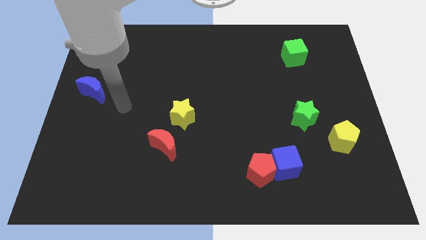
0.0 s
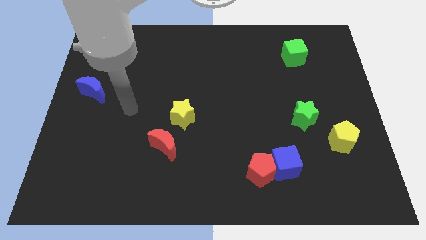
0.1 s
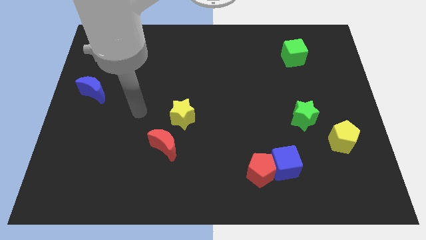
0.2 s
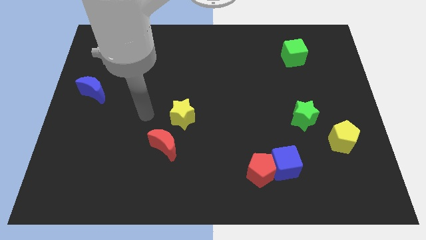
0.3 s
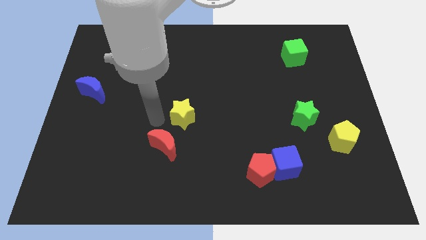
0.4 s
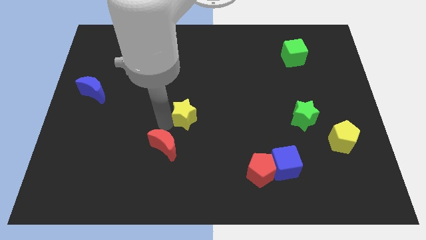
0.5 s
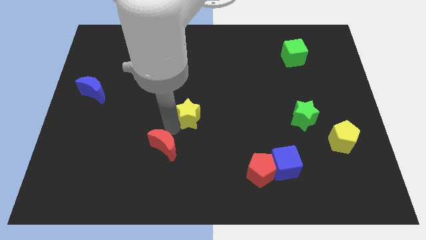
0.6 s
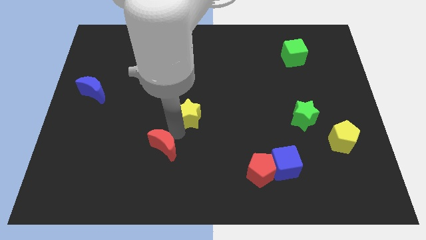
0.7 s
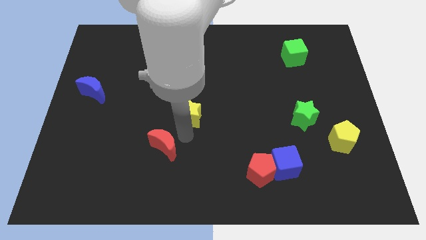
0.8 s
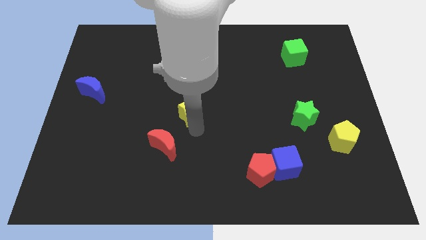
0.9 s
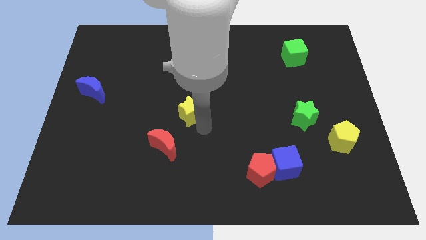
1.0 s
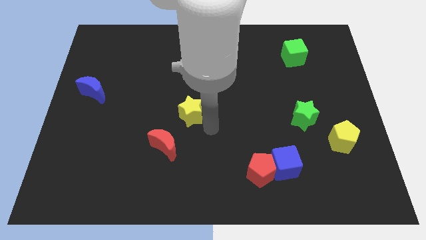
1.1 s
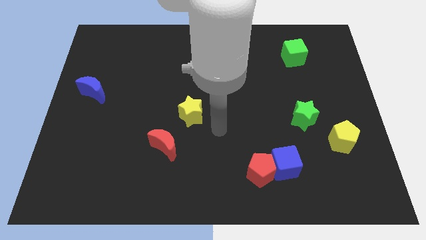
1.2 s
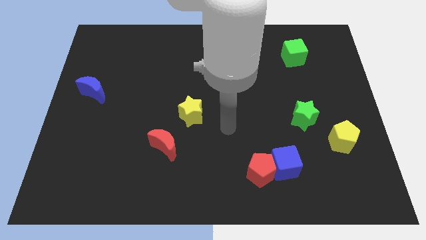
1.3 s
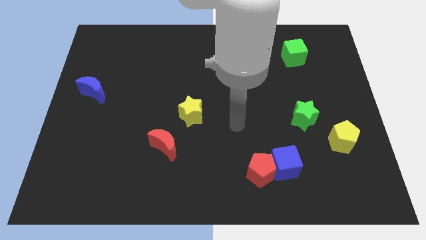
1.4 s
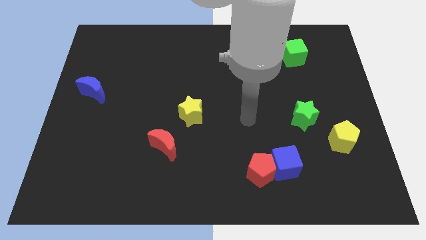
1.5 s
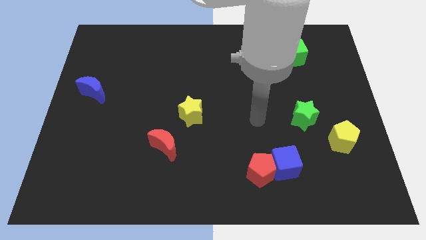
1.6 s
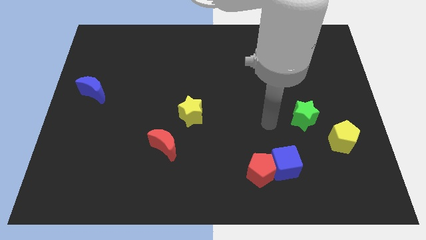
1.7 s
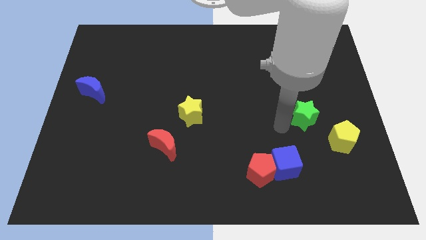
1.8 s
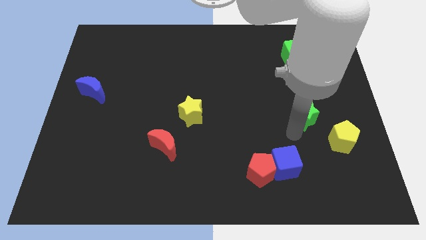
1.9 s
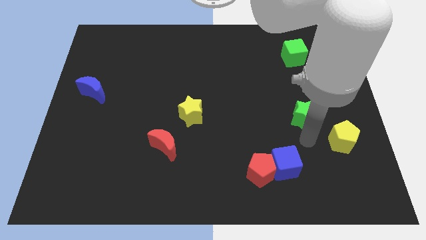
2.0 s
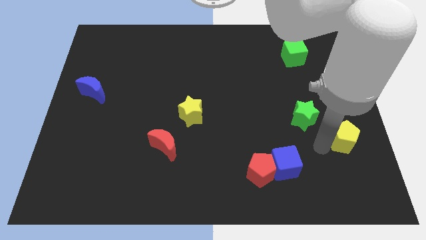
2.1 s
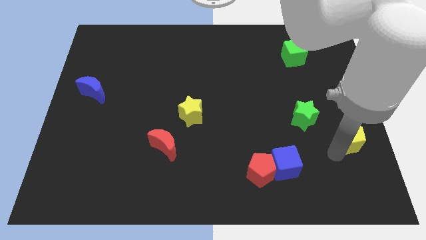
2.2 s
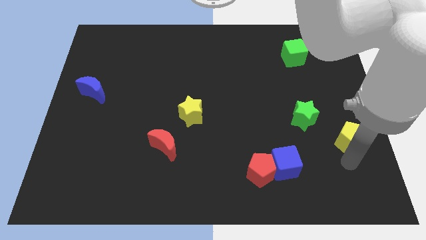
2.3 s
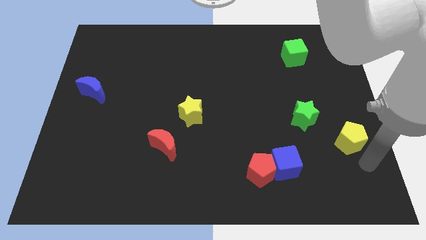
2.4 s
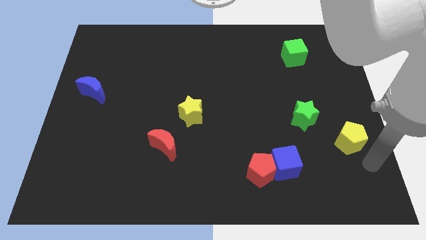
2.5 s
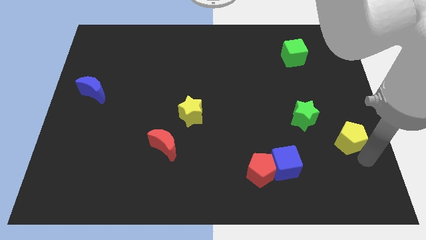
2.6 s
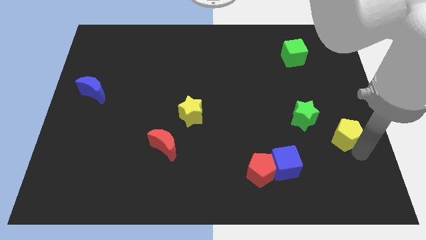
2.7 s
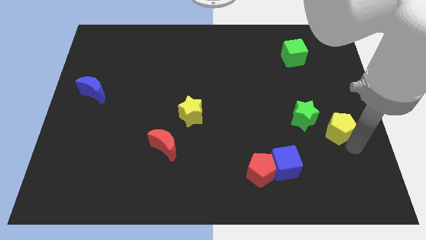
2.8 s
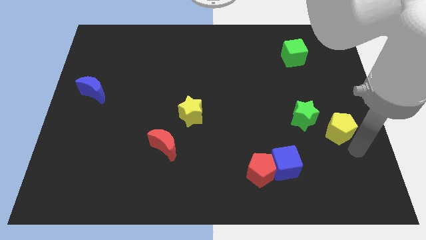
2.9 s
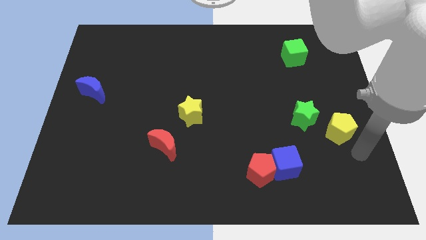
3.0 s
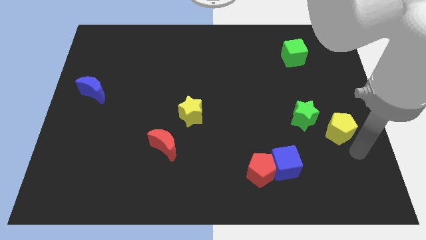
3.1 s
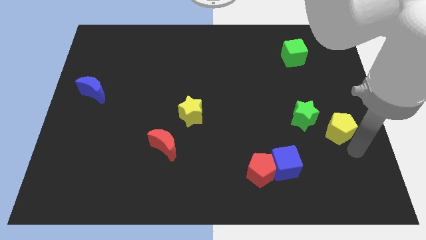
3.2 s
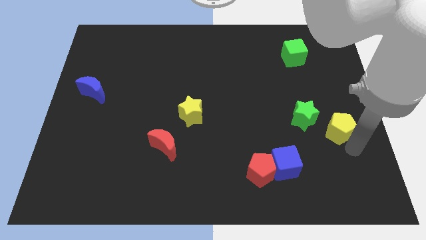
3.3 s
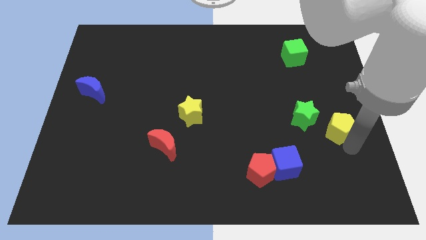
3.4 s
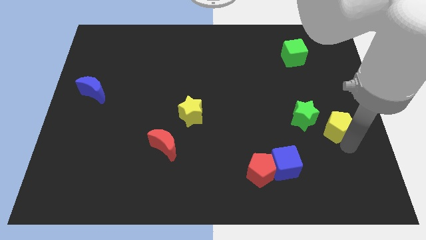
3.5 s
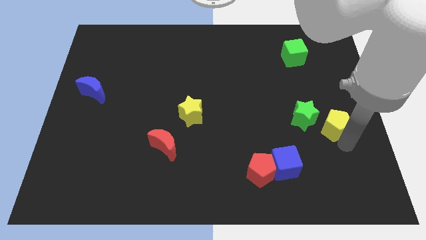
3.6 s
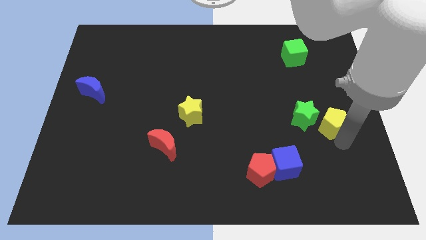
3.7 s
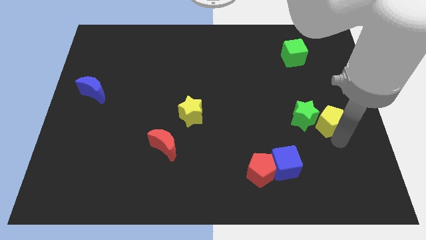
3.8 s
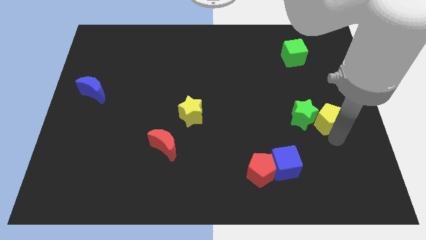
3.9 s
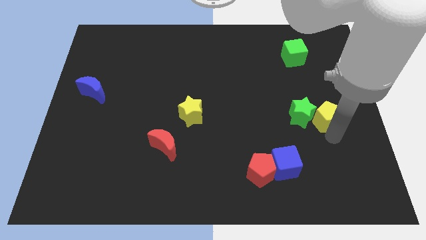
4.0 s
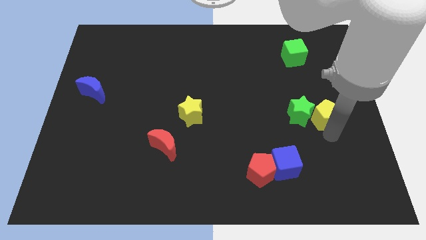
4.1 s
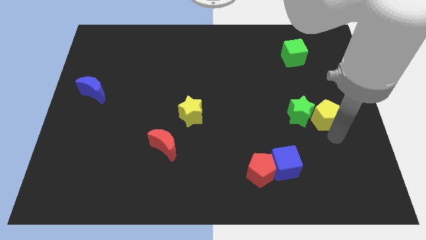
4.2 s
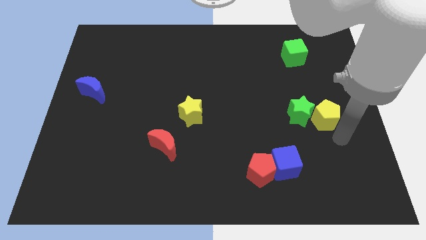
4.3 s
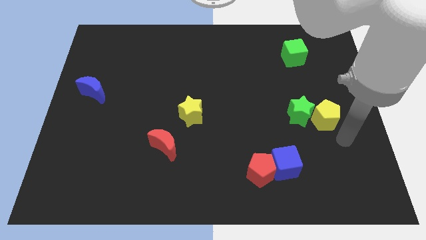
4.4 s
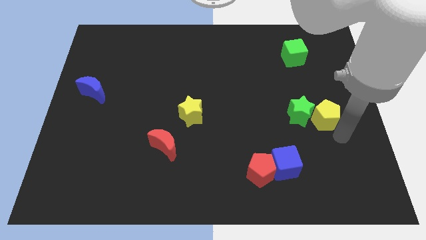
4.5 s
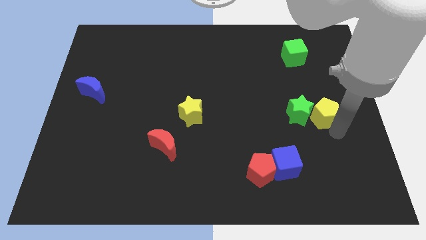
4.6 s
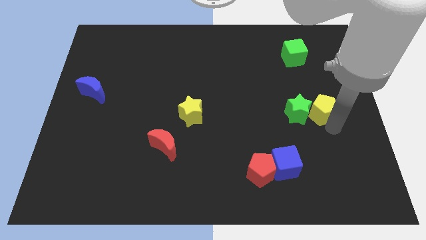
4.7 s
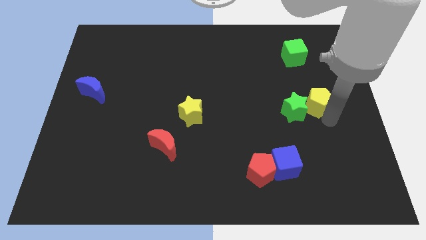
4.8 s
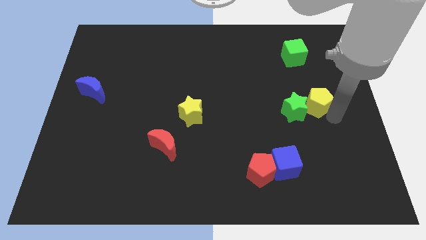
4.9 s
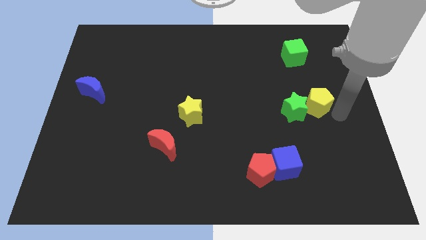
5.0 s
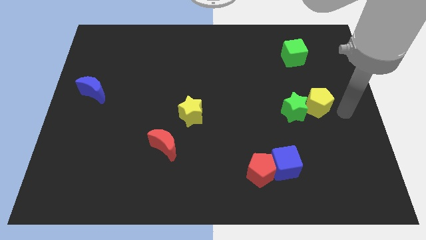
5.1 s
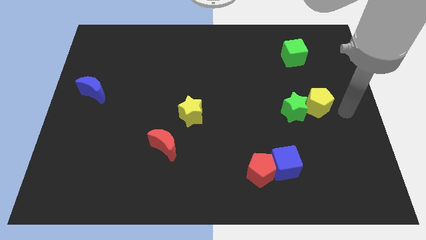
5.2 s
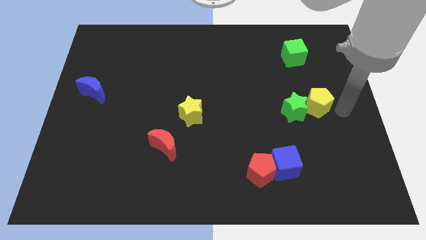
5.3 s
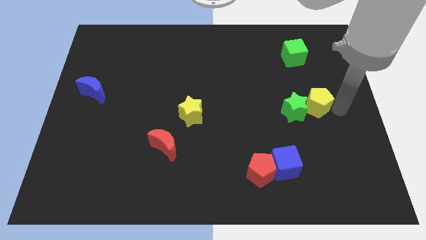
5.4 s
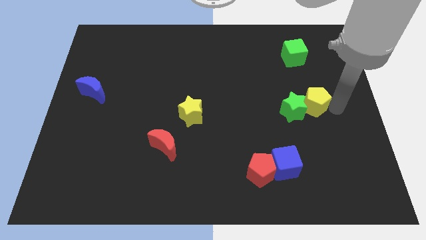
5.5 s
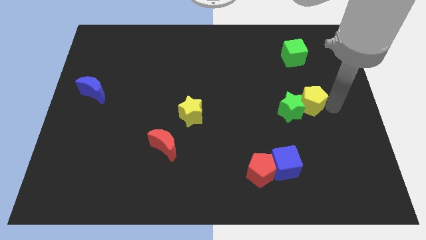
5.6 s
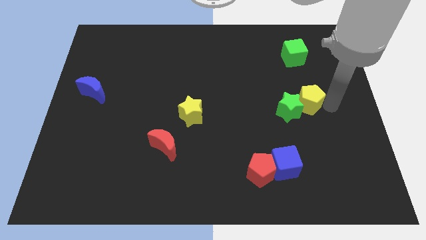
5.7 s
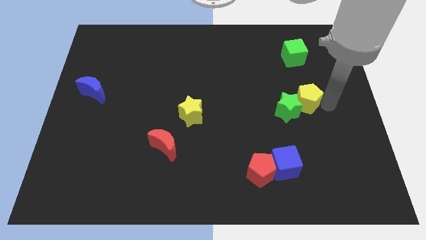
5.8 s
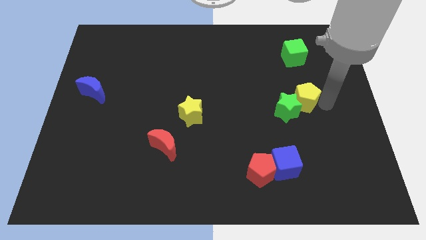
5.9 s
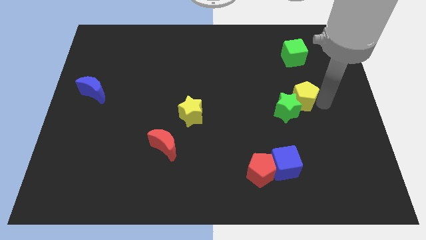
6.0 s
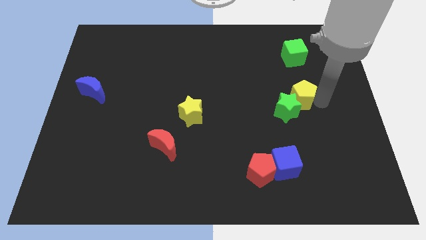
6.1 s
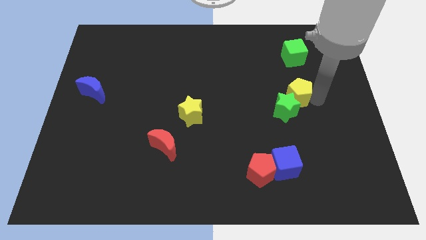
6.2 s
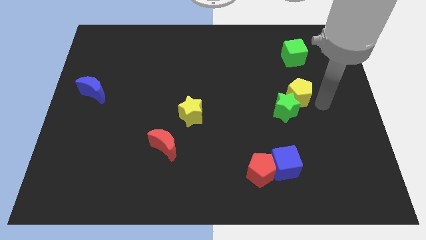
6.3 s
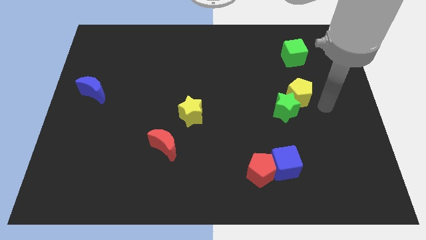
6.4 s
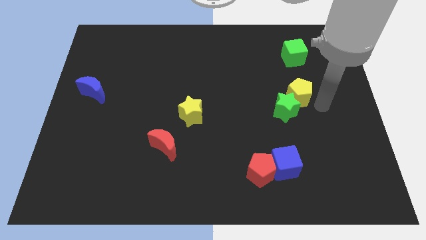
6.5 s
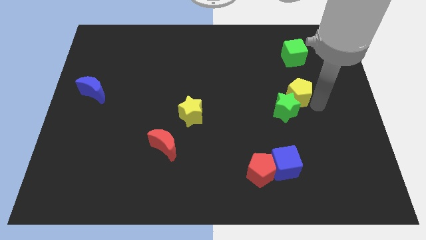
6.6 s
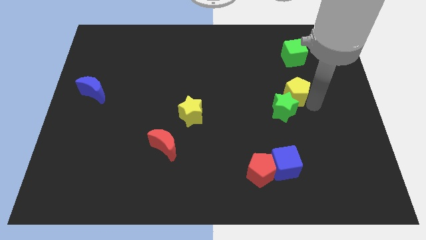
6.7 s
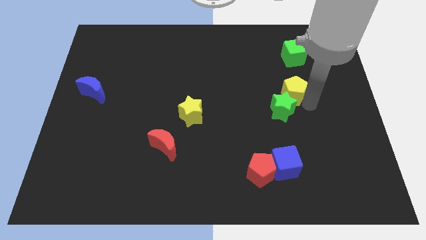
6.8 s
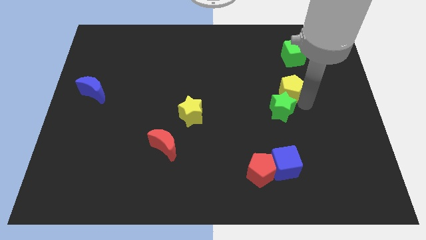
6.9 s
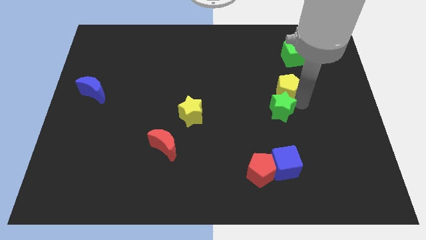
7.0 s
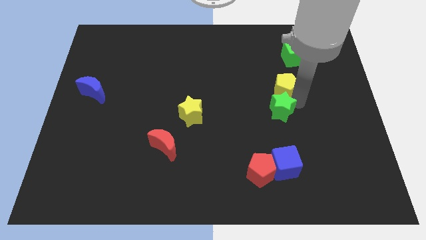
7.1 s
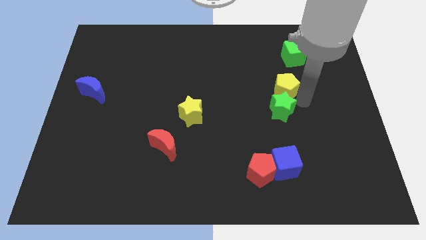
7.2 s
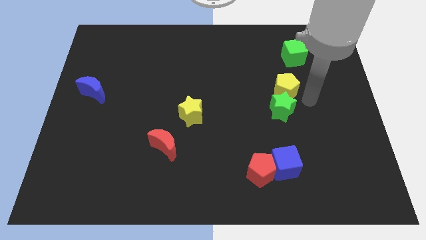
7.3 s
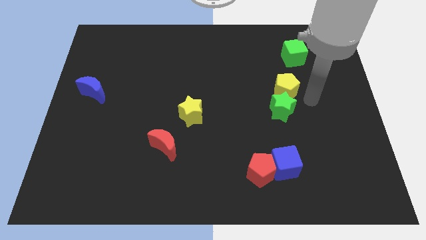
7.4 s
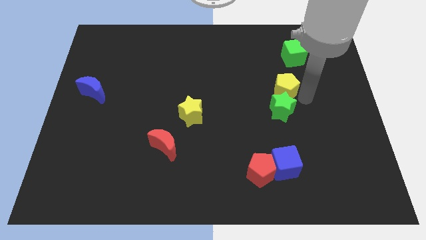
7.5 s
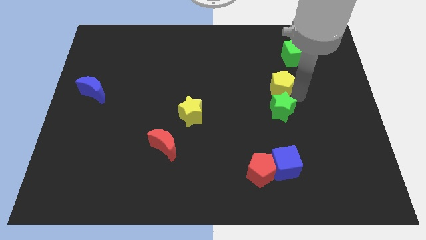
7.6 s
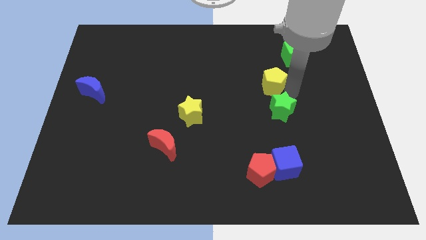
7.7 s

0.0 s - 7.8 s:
slide the yellow pentagon upwards and left diagonally

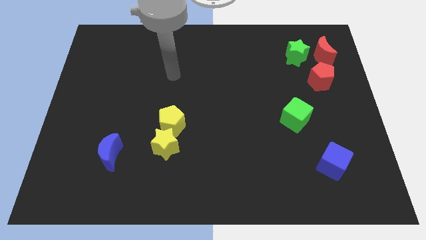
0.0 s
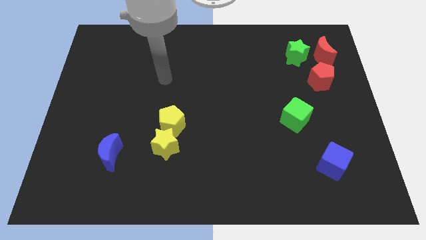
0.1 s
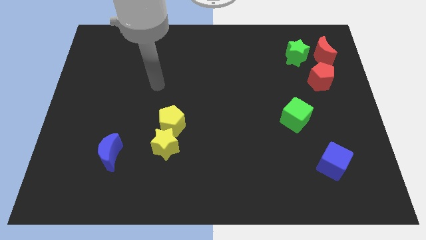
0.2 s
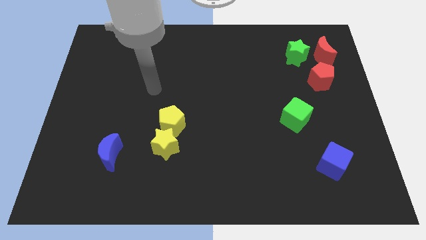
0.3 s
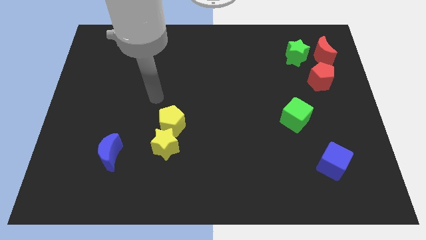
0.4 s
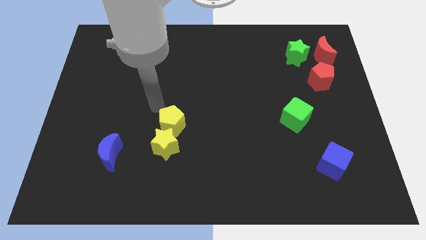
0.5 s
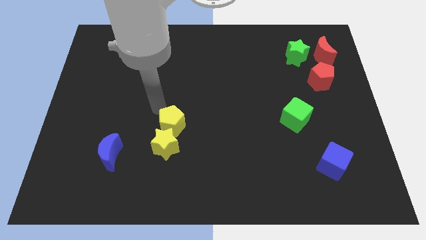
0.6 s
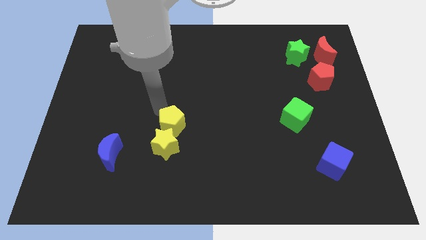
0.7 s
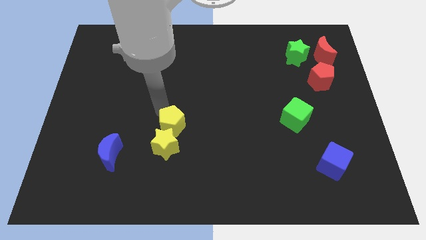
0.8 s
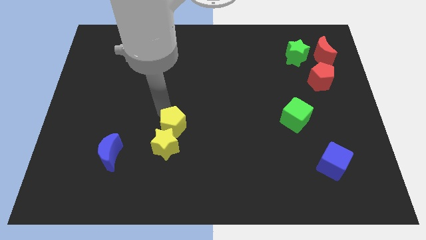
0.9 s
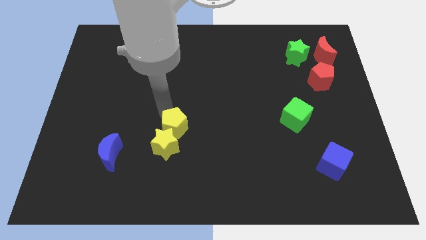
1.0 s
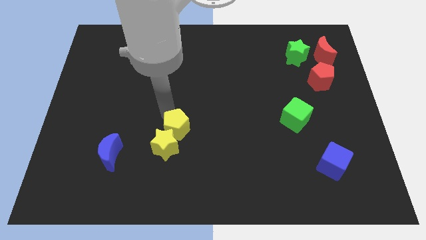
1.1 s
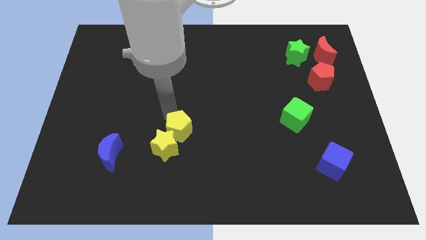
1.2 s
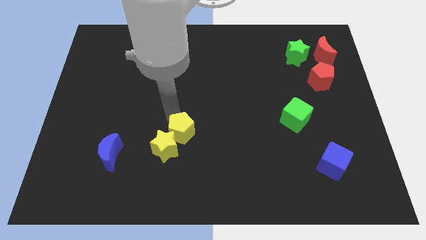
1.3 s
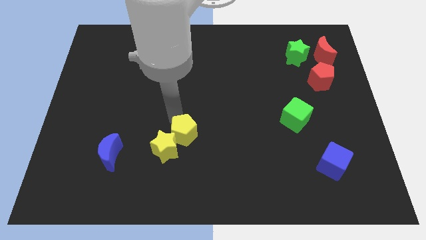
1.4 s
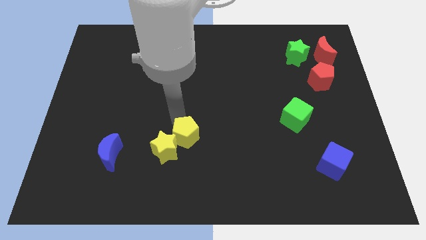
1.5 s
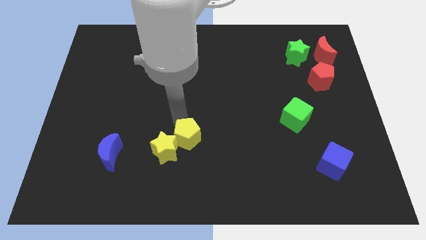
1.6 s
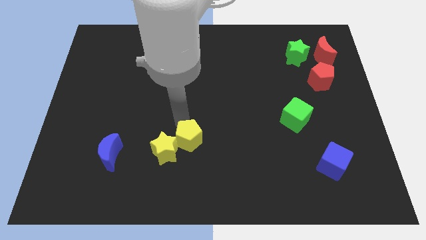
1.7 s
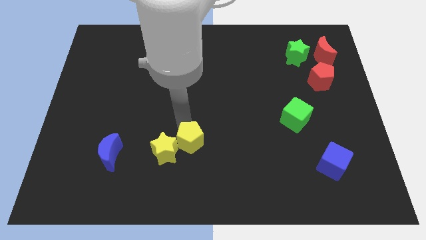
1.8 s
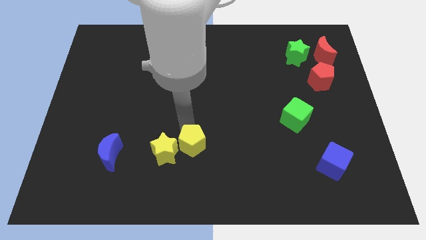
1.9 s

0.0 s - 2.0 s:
slide the yellow pentagon down and to the right a little bit
